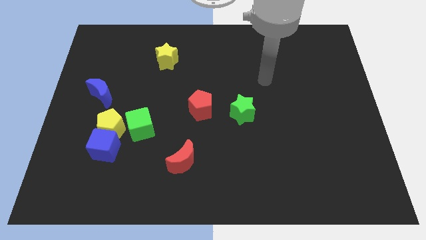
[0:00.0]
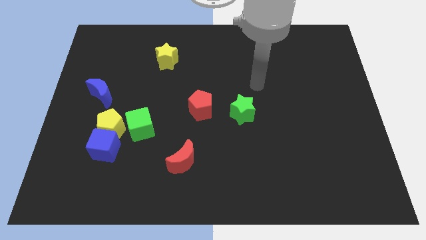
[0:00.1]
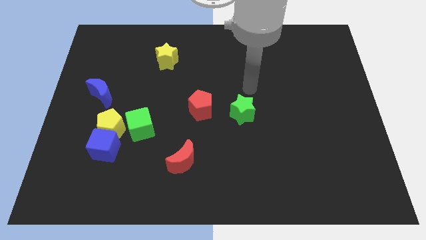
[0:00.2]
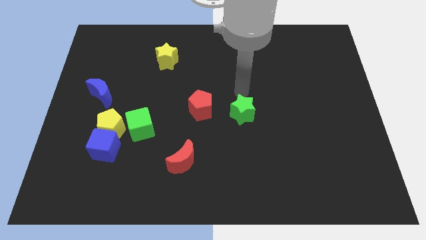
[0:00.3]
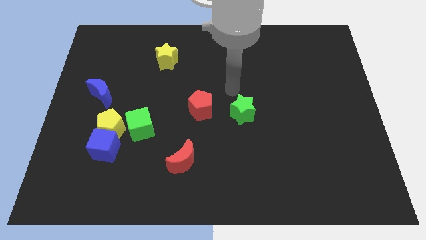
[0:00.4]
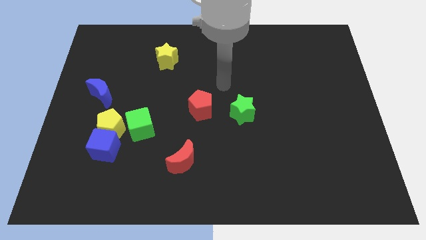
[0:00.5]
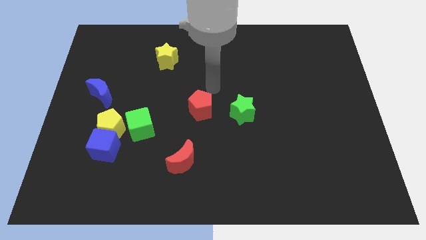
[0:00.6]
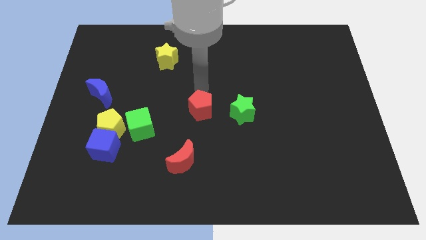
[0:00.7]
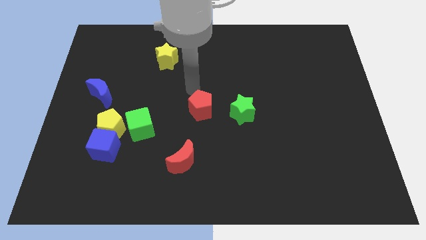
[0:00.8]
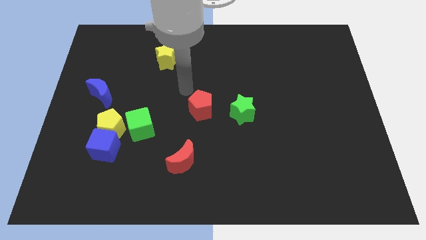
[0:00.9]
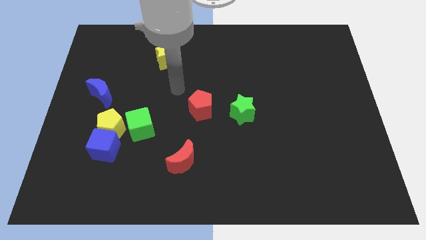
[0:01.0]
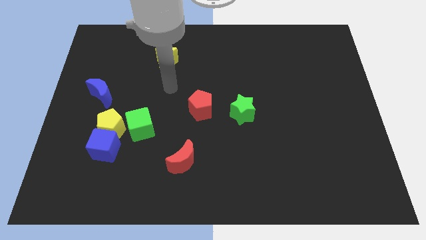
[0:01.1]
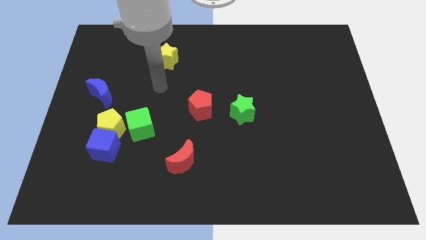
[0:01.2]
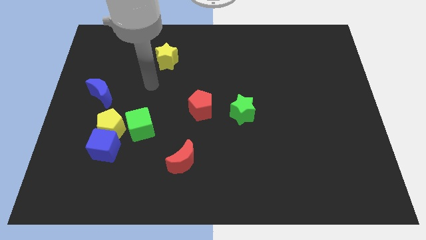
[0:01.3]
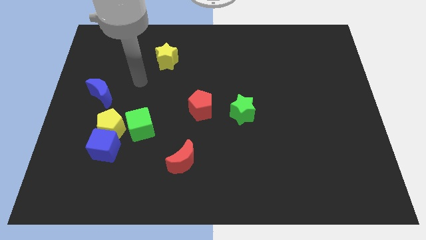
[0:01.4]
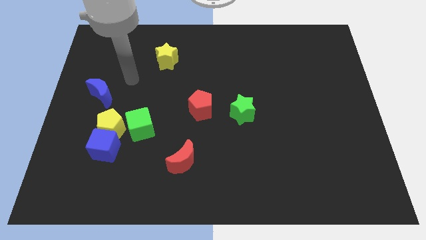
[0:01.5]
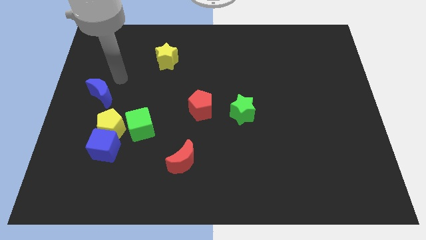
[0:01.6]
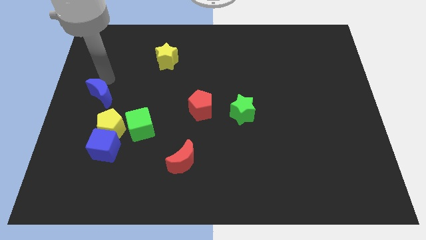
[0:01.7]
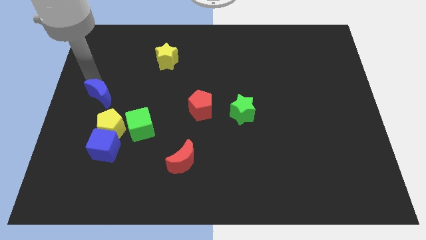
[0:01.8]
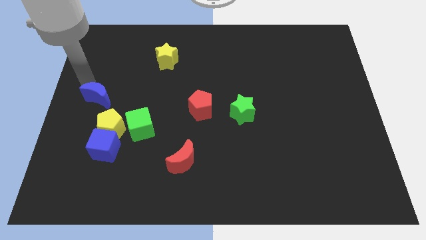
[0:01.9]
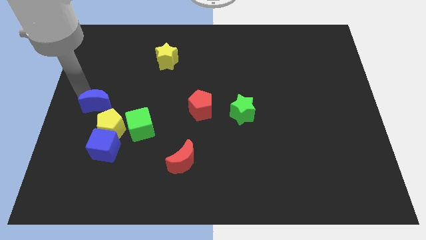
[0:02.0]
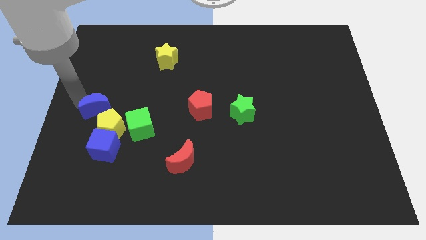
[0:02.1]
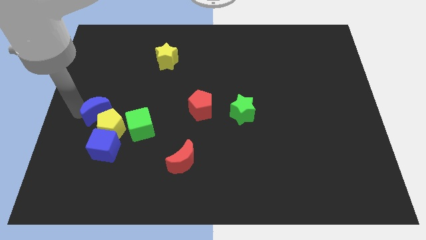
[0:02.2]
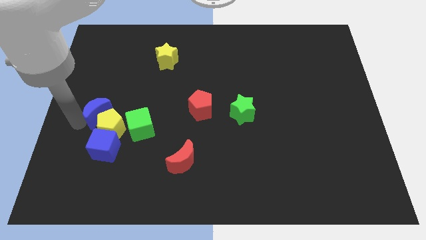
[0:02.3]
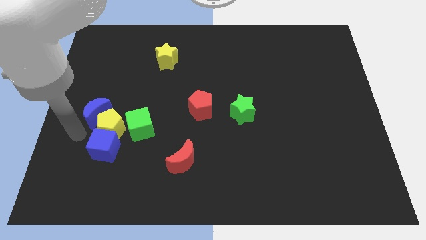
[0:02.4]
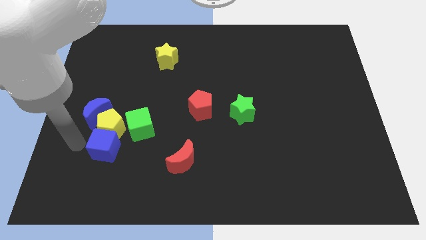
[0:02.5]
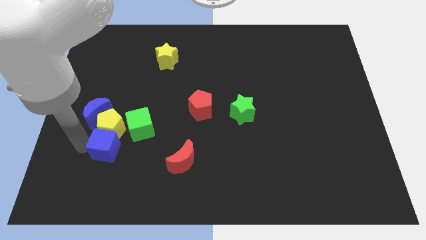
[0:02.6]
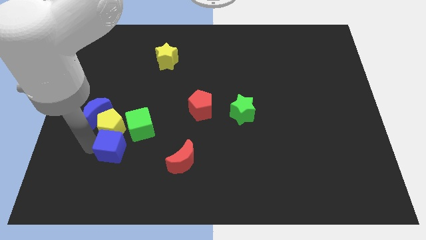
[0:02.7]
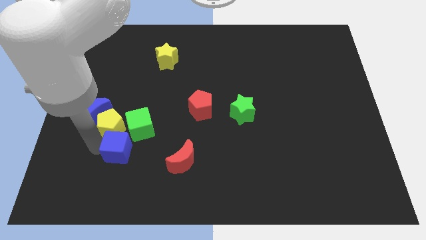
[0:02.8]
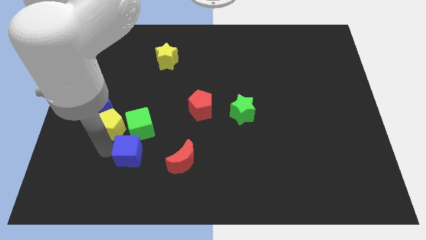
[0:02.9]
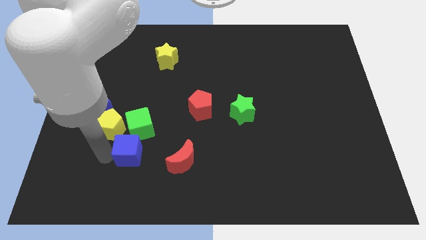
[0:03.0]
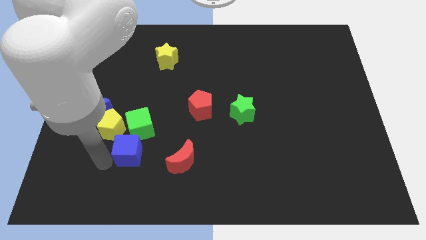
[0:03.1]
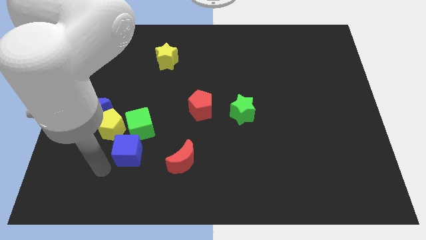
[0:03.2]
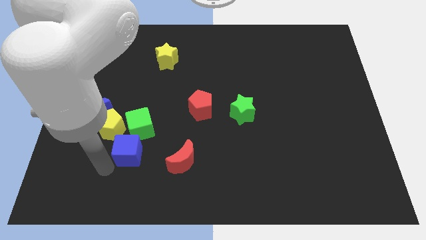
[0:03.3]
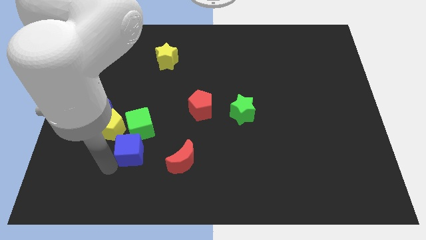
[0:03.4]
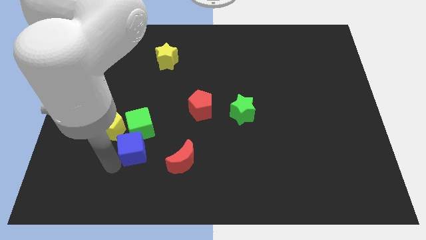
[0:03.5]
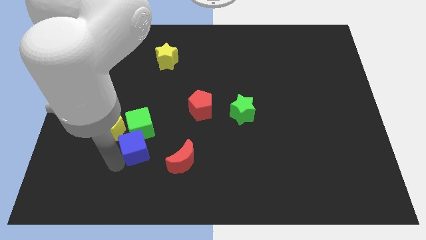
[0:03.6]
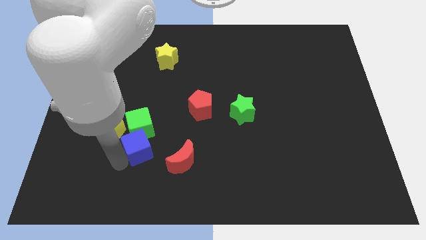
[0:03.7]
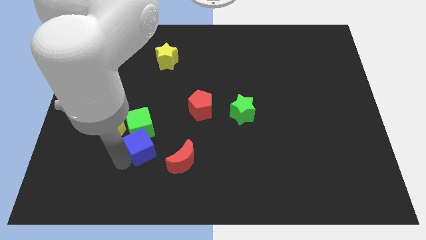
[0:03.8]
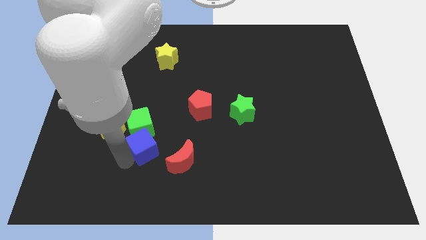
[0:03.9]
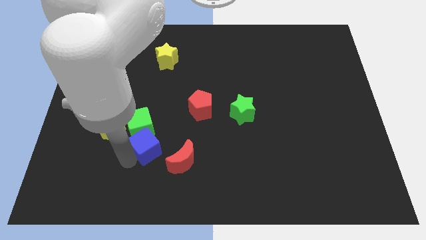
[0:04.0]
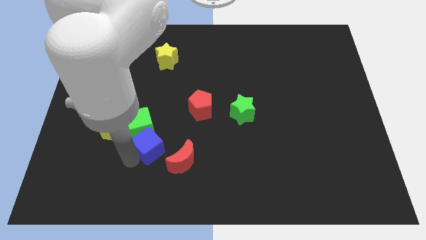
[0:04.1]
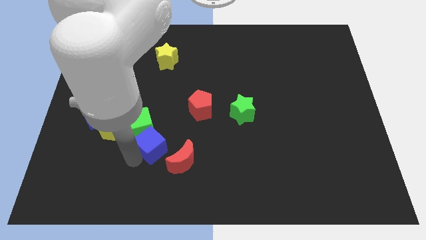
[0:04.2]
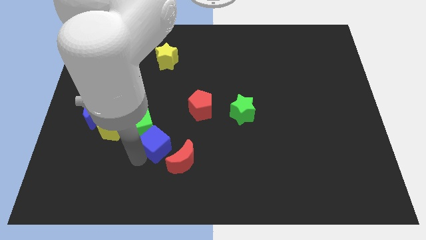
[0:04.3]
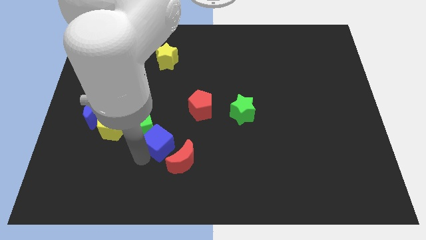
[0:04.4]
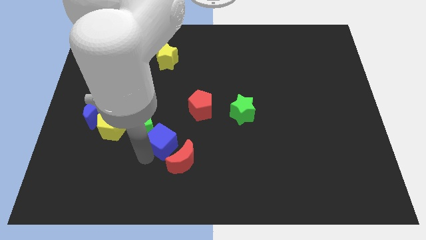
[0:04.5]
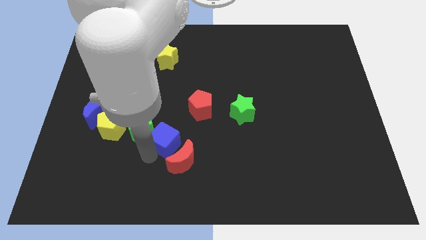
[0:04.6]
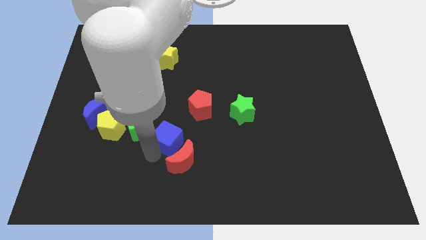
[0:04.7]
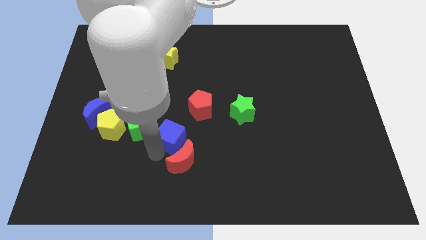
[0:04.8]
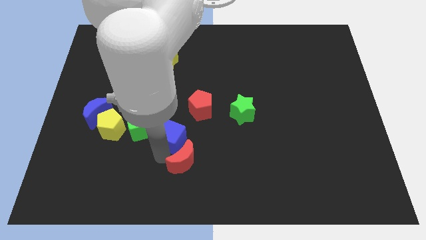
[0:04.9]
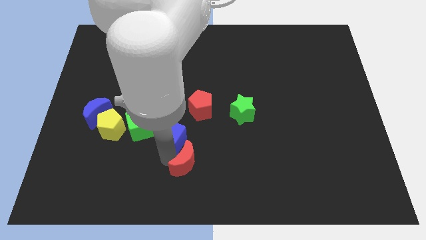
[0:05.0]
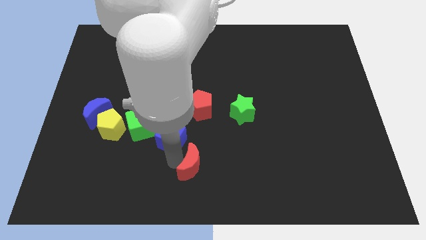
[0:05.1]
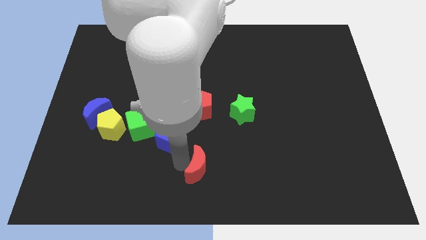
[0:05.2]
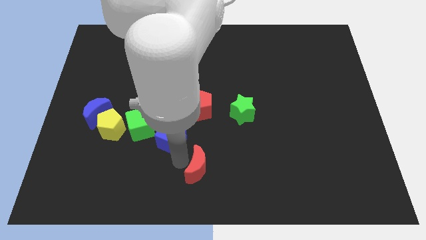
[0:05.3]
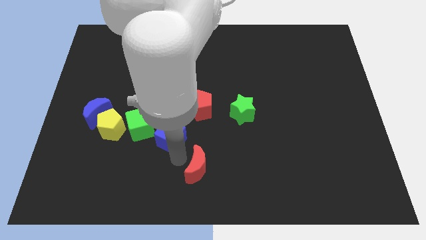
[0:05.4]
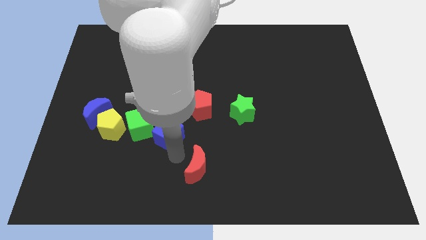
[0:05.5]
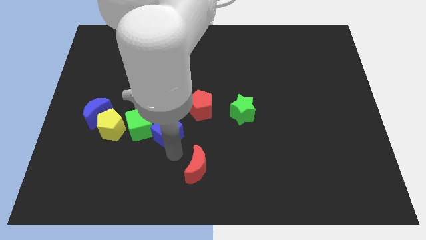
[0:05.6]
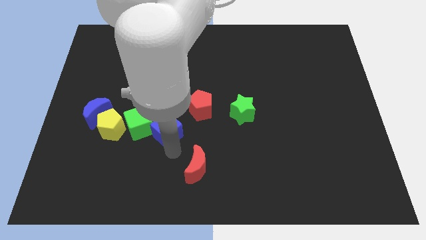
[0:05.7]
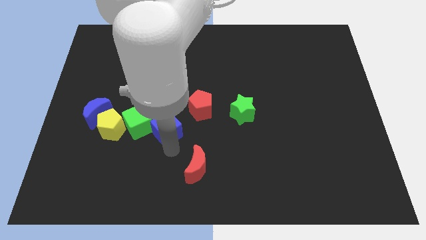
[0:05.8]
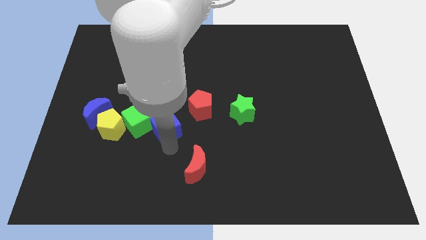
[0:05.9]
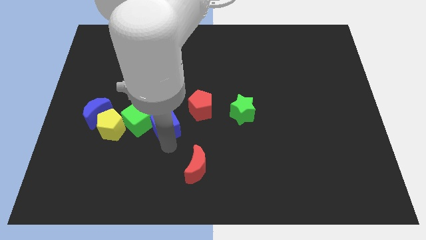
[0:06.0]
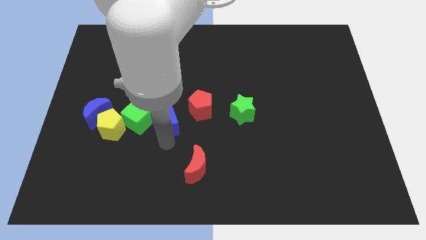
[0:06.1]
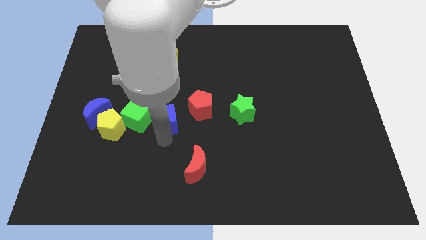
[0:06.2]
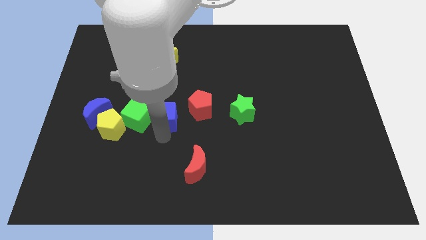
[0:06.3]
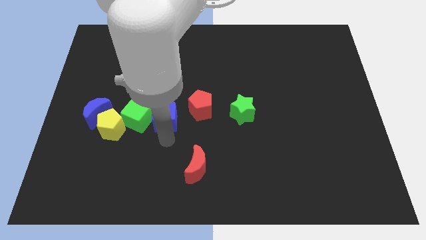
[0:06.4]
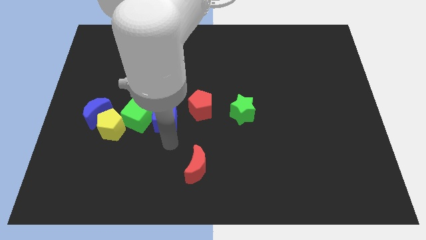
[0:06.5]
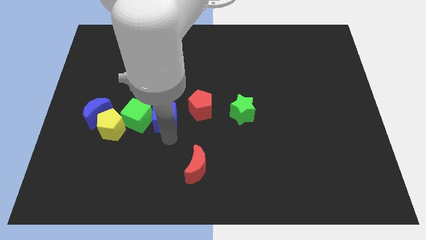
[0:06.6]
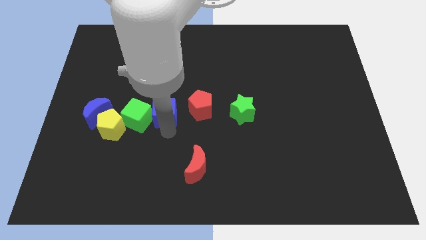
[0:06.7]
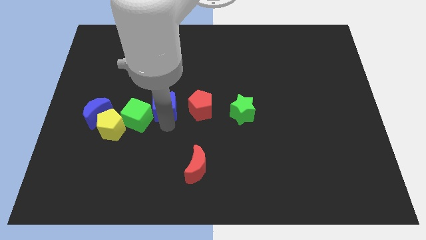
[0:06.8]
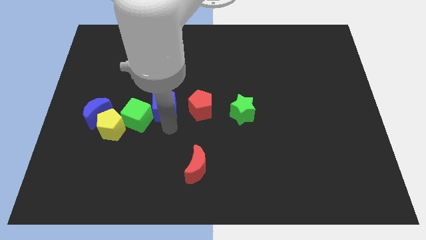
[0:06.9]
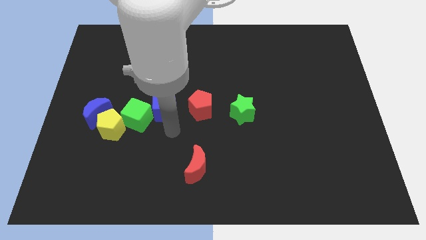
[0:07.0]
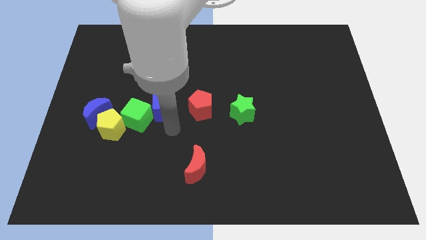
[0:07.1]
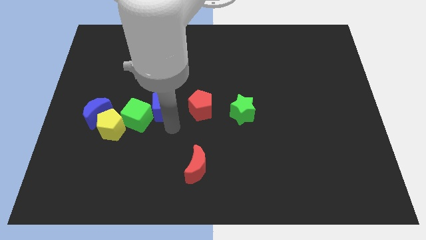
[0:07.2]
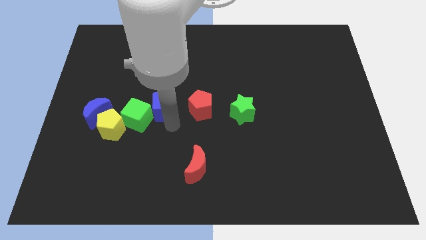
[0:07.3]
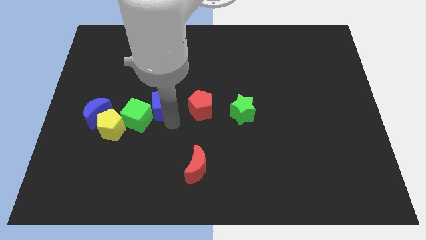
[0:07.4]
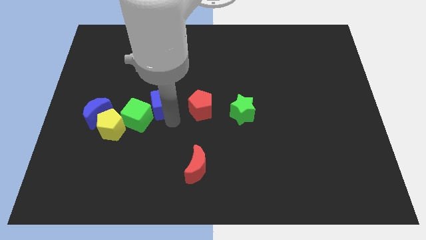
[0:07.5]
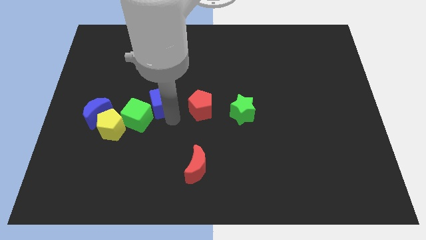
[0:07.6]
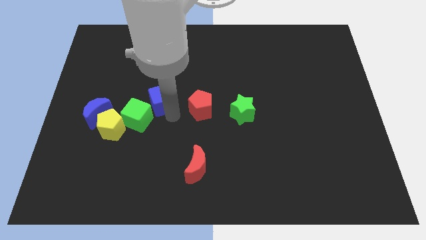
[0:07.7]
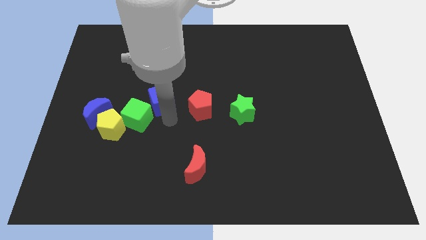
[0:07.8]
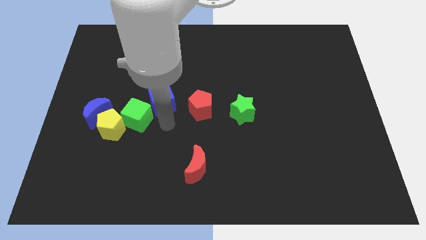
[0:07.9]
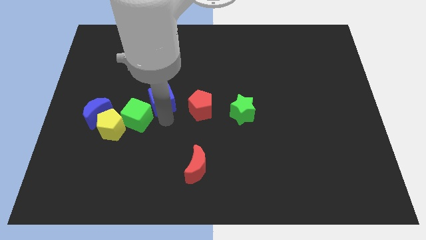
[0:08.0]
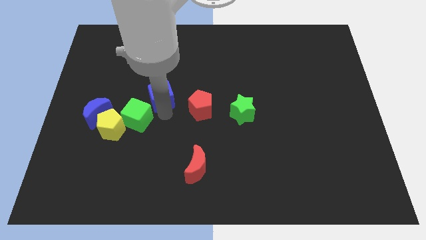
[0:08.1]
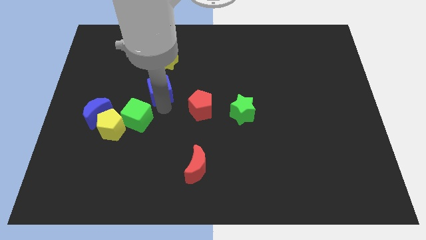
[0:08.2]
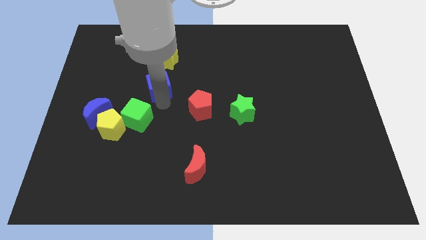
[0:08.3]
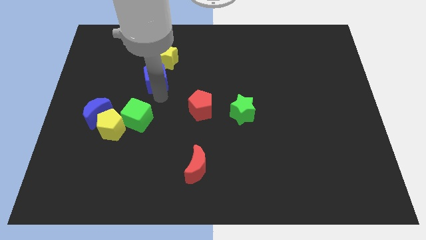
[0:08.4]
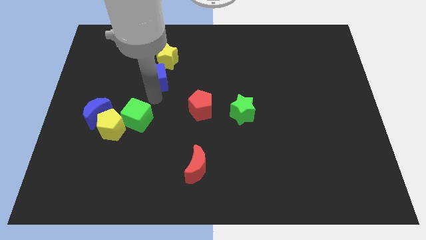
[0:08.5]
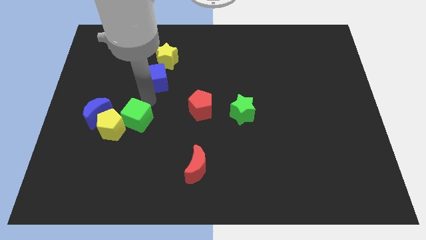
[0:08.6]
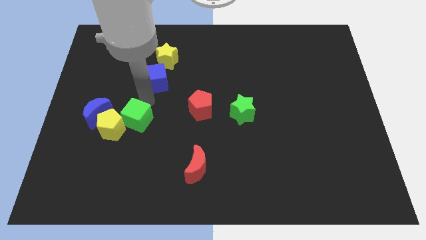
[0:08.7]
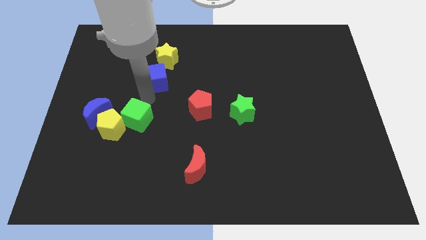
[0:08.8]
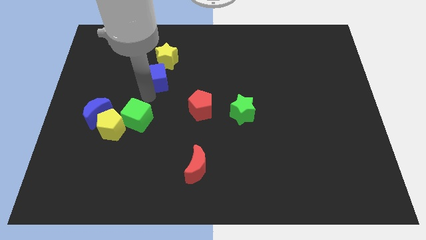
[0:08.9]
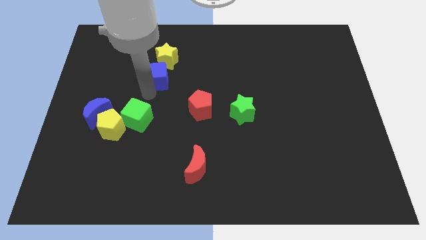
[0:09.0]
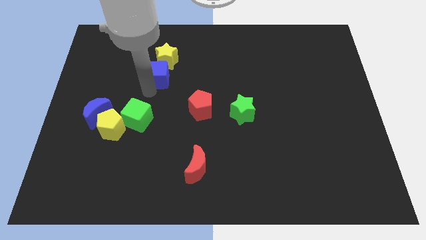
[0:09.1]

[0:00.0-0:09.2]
push the blue cube next to the yellow star
